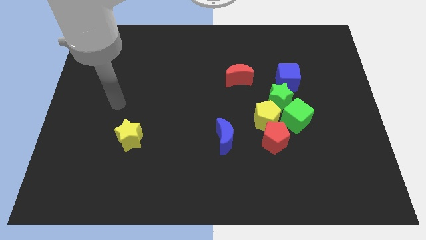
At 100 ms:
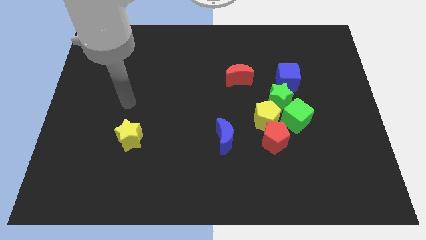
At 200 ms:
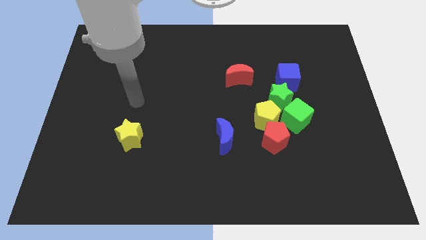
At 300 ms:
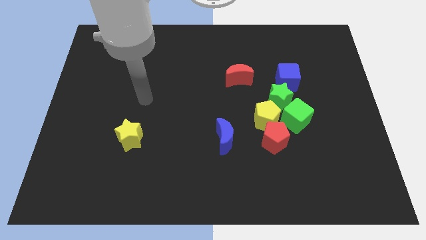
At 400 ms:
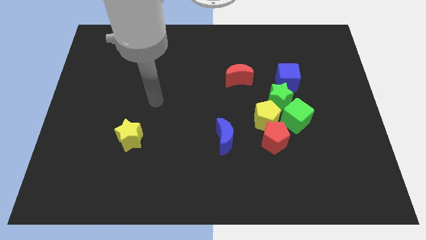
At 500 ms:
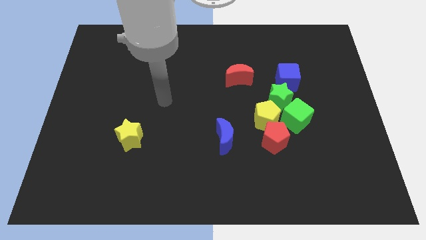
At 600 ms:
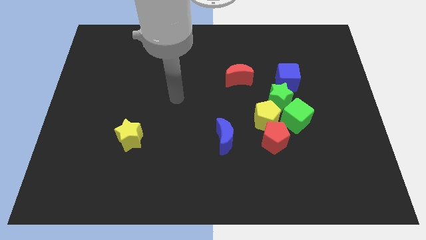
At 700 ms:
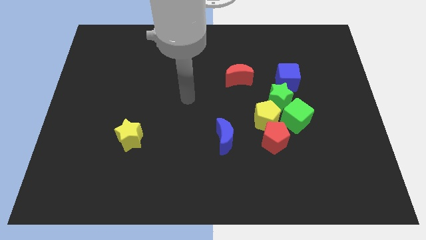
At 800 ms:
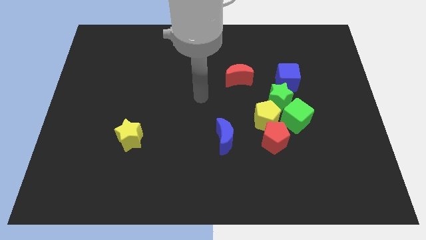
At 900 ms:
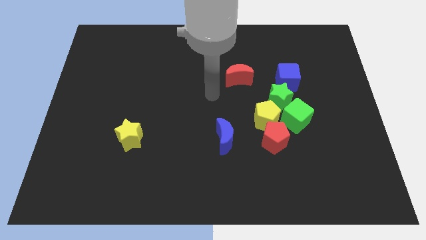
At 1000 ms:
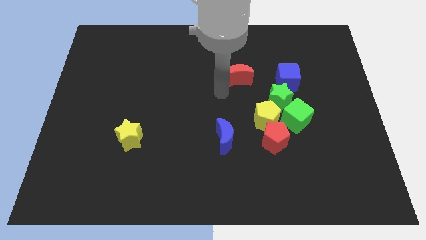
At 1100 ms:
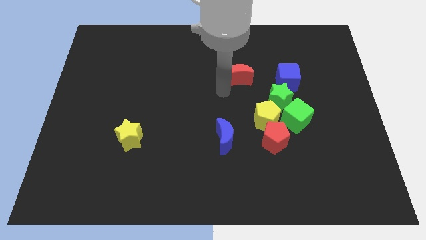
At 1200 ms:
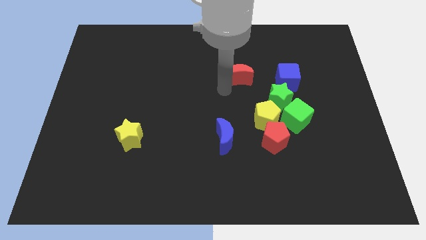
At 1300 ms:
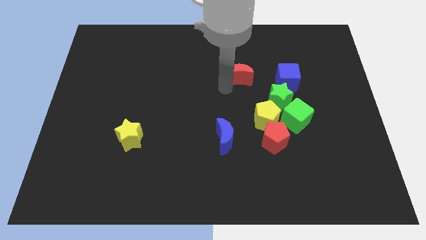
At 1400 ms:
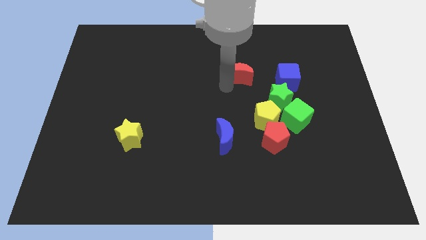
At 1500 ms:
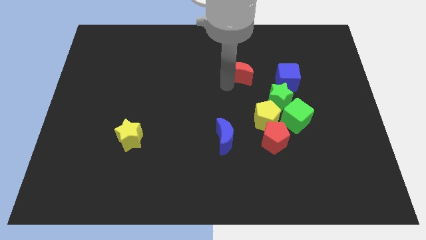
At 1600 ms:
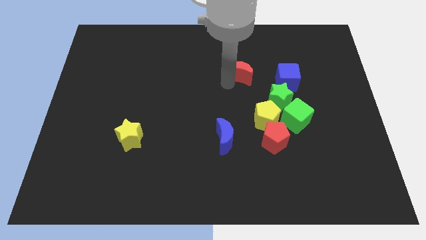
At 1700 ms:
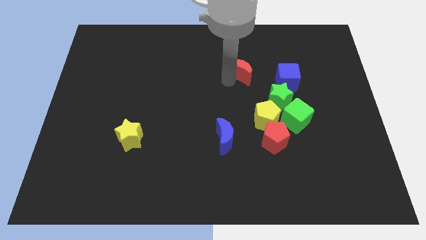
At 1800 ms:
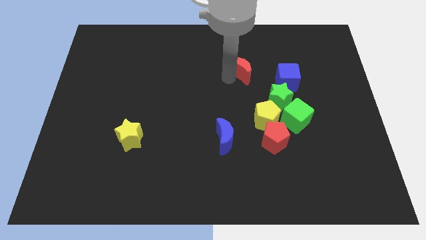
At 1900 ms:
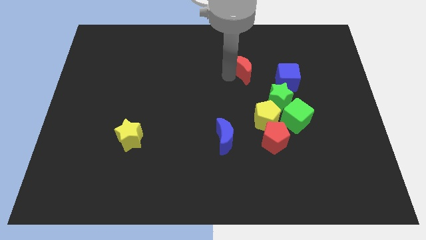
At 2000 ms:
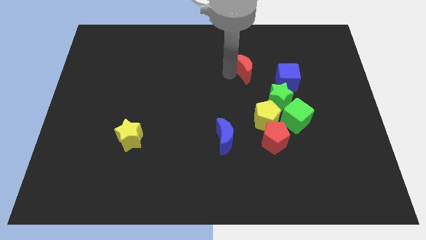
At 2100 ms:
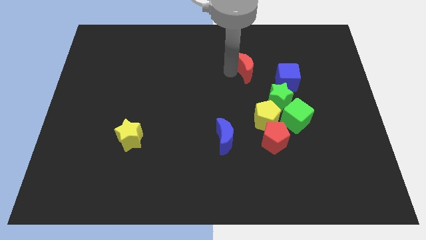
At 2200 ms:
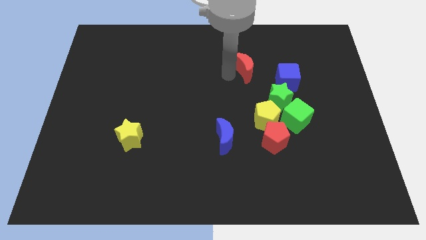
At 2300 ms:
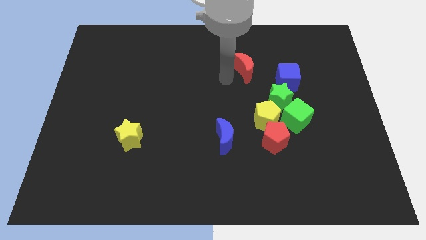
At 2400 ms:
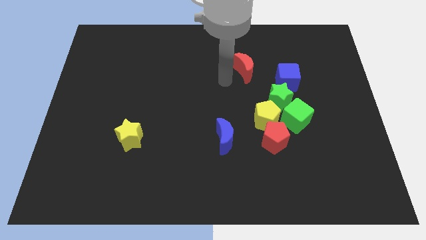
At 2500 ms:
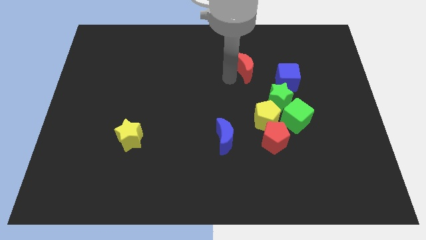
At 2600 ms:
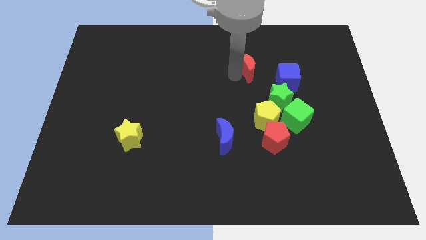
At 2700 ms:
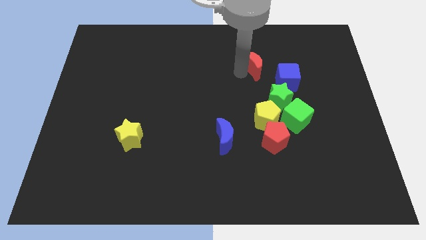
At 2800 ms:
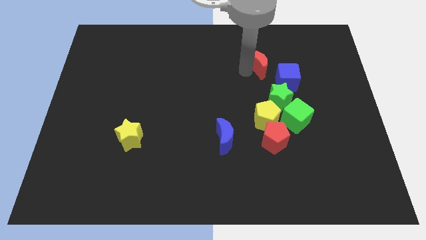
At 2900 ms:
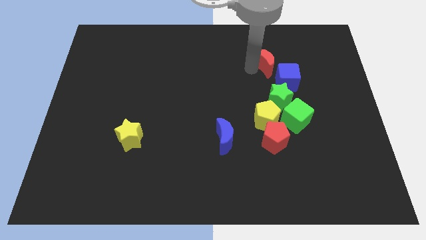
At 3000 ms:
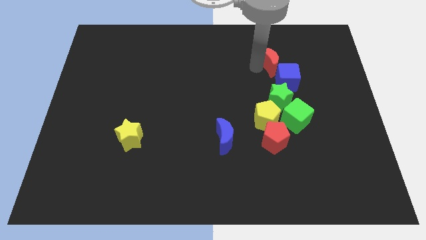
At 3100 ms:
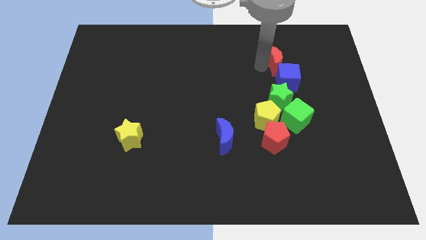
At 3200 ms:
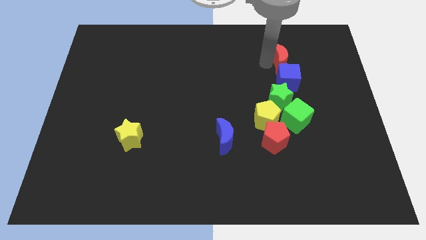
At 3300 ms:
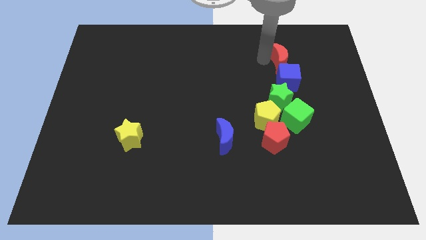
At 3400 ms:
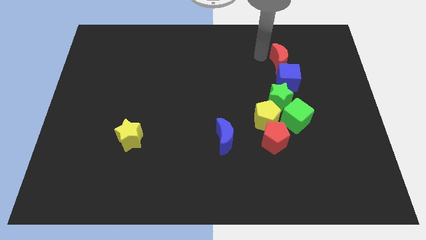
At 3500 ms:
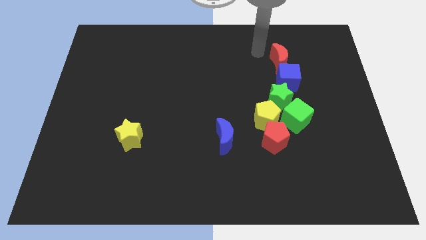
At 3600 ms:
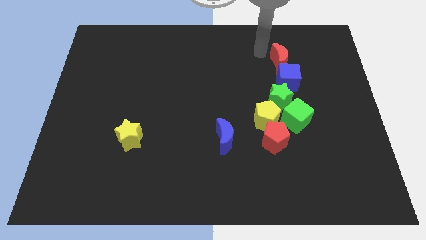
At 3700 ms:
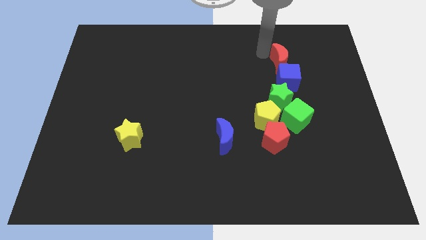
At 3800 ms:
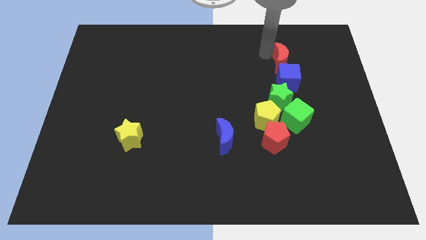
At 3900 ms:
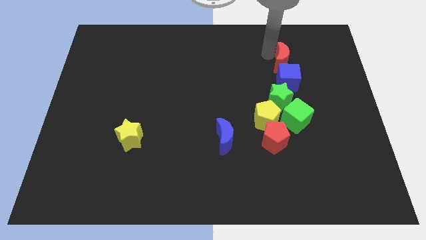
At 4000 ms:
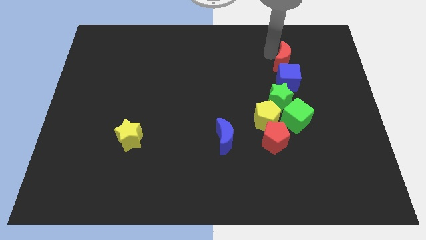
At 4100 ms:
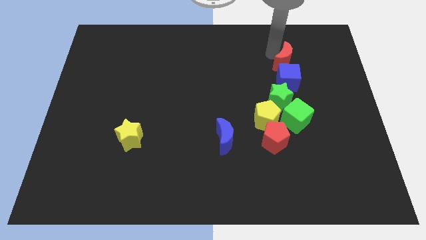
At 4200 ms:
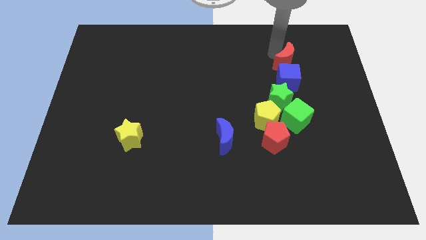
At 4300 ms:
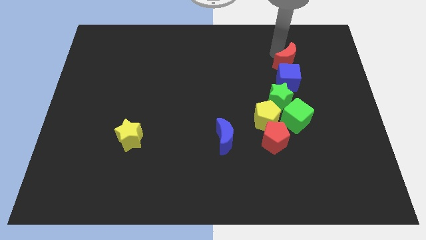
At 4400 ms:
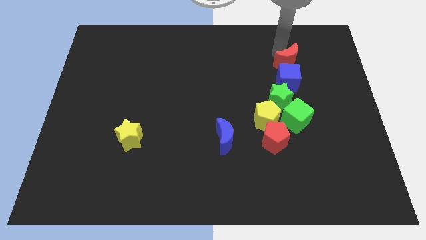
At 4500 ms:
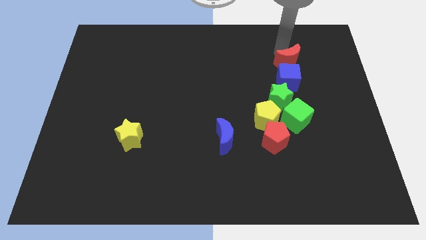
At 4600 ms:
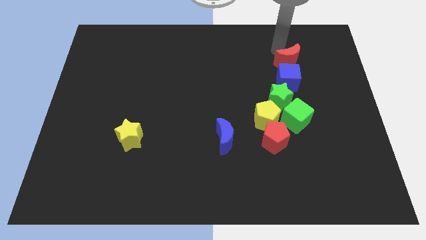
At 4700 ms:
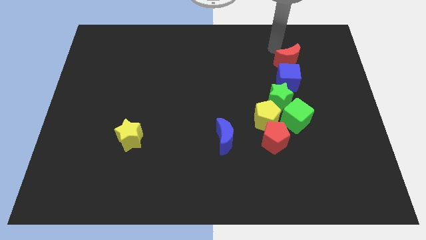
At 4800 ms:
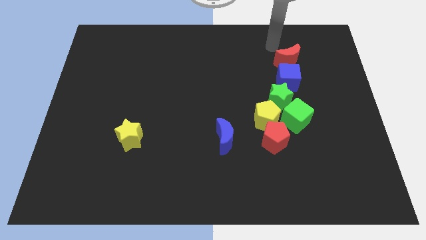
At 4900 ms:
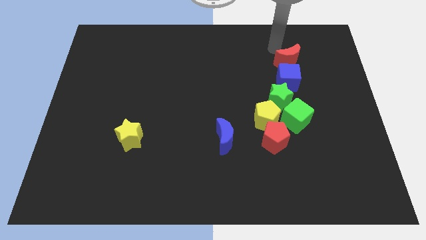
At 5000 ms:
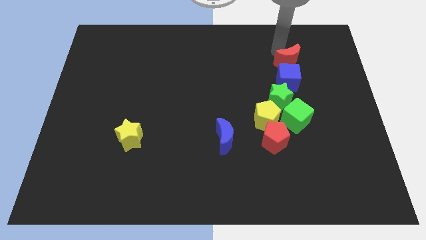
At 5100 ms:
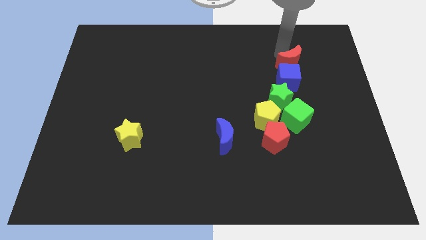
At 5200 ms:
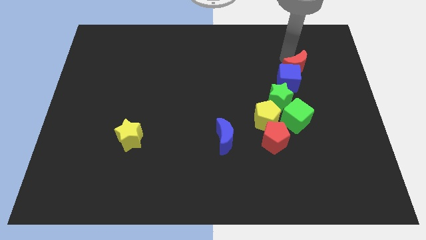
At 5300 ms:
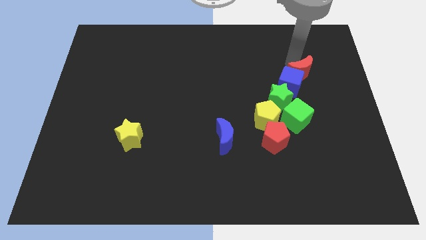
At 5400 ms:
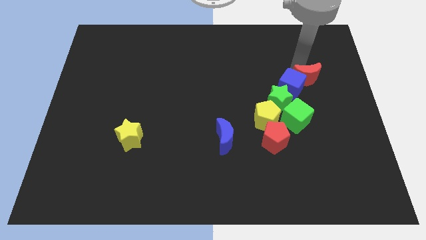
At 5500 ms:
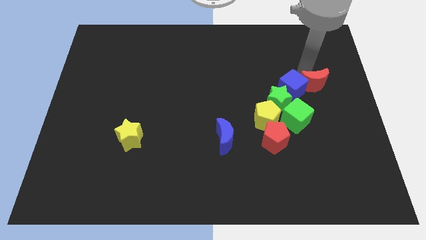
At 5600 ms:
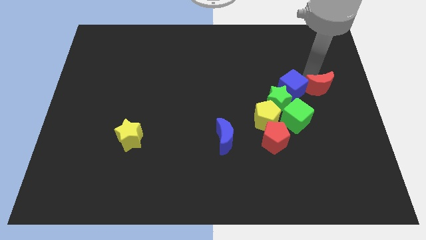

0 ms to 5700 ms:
push the red moon to the bottom right of the blue cube
